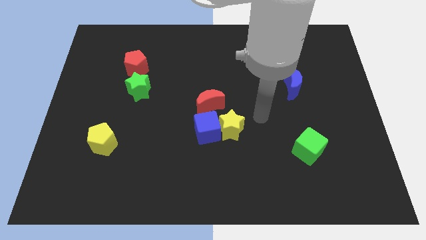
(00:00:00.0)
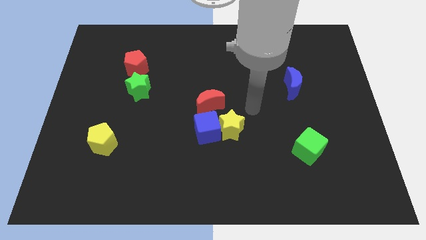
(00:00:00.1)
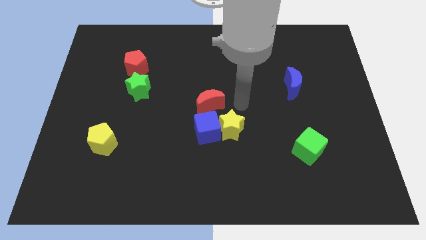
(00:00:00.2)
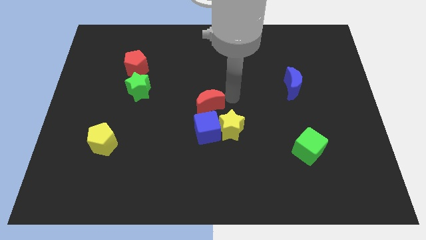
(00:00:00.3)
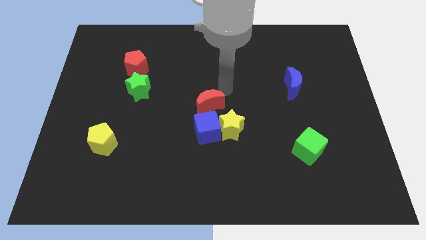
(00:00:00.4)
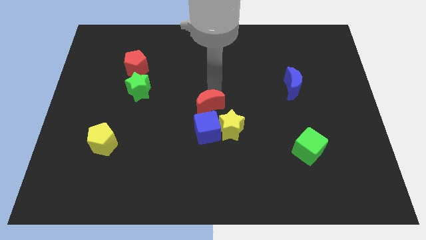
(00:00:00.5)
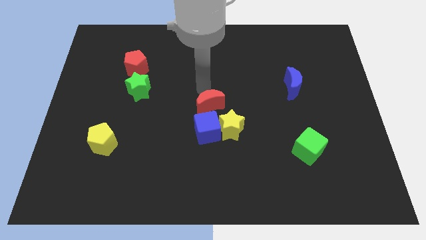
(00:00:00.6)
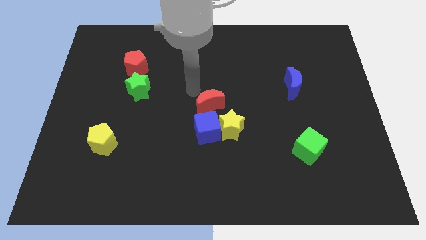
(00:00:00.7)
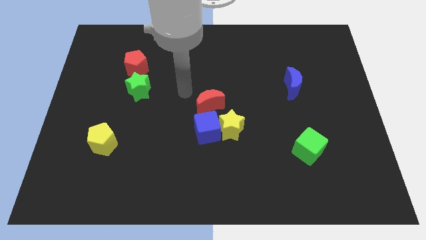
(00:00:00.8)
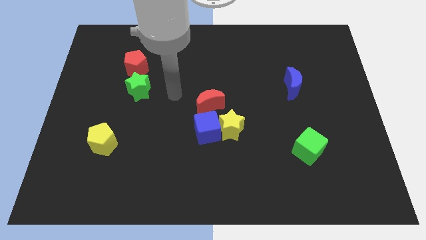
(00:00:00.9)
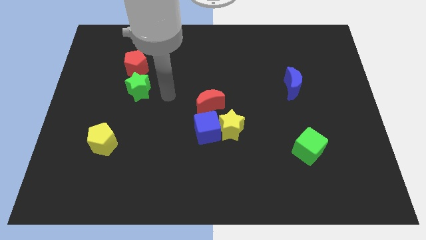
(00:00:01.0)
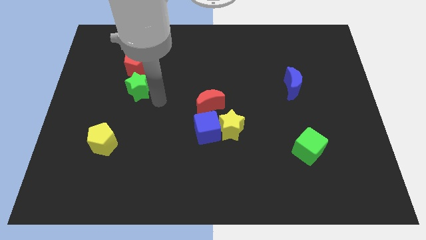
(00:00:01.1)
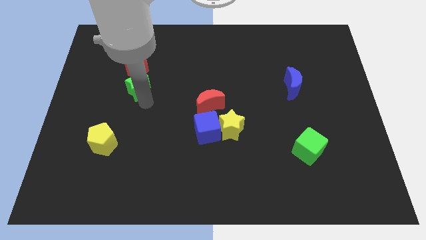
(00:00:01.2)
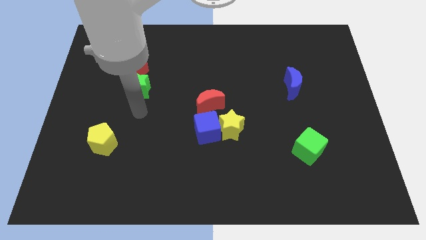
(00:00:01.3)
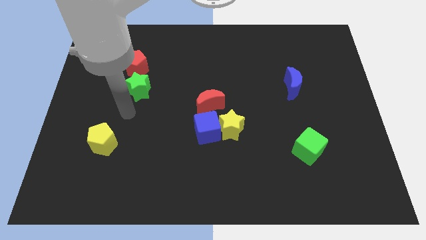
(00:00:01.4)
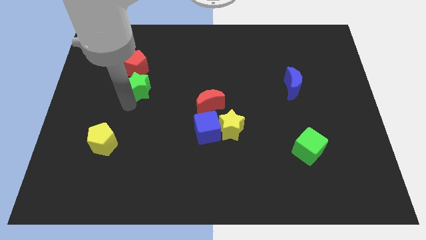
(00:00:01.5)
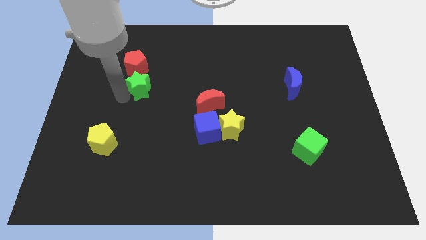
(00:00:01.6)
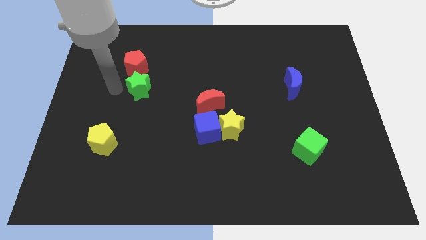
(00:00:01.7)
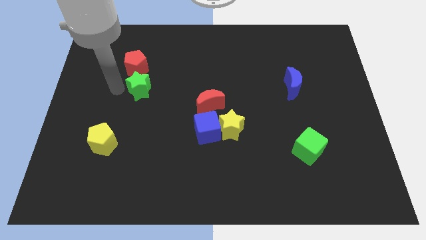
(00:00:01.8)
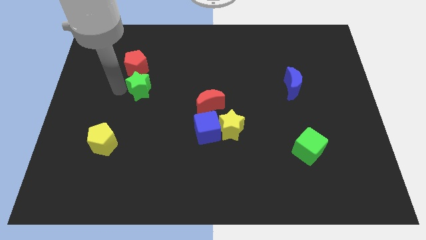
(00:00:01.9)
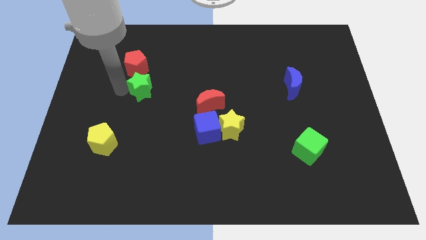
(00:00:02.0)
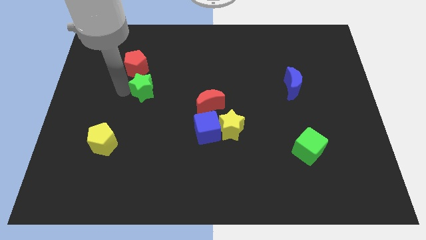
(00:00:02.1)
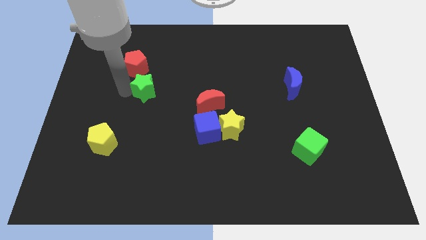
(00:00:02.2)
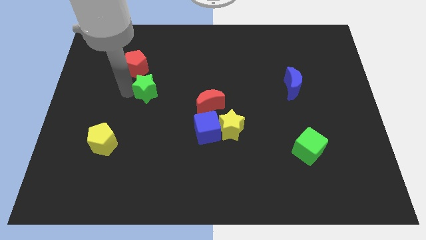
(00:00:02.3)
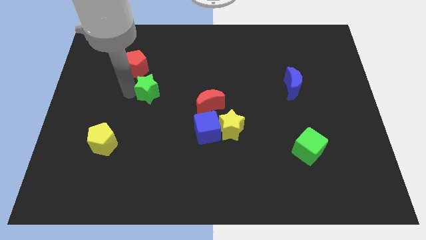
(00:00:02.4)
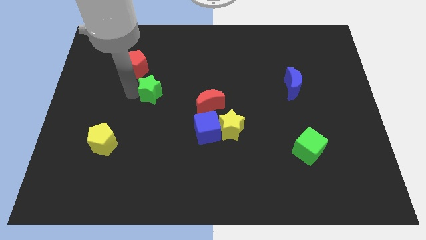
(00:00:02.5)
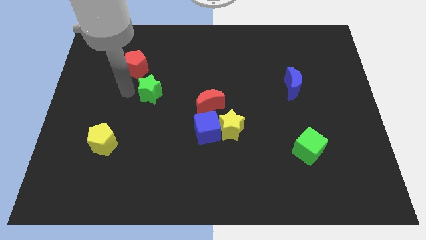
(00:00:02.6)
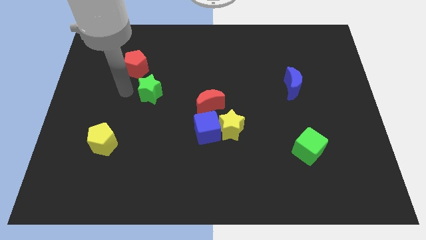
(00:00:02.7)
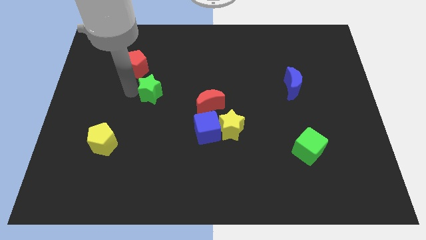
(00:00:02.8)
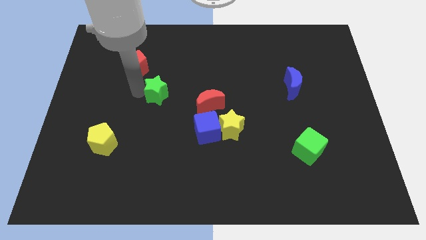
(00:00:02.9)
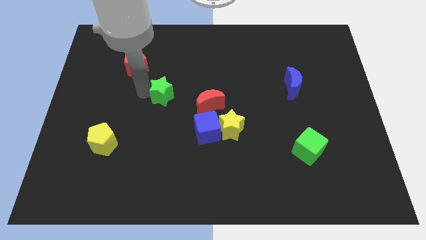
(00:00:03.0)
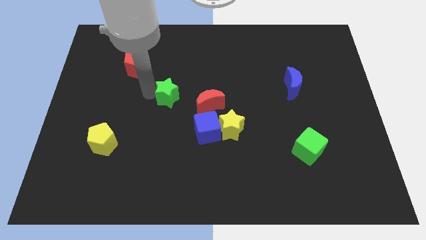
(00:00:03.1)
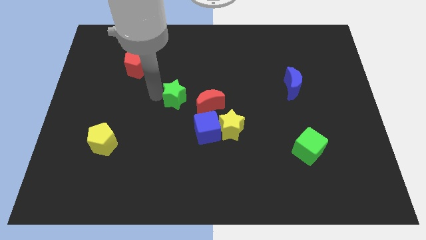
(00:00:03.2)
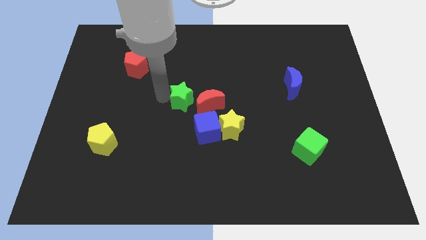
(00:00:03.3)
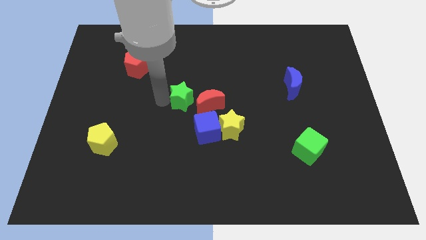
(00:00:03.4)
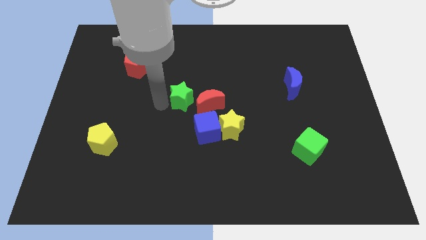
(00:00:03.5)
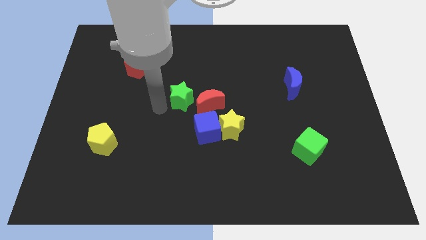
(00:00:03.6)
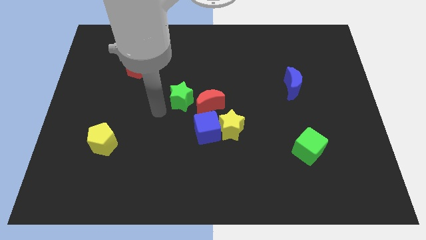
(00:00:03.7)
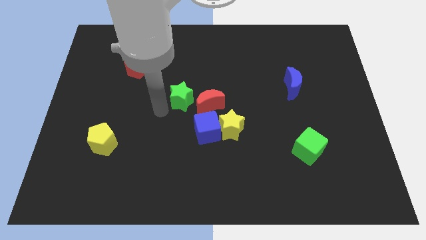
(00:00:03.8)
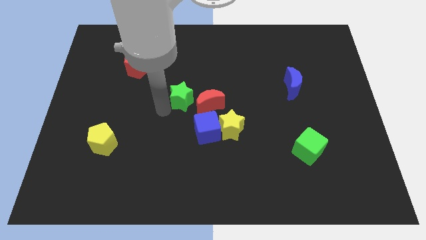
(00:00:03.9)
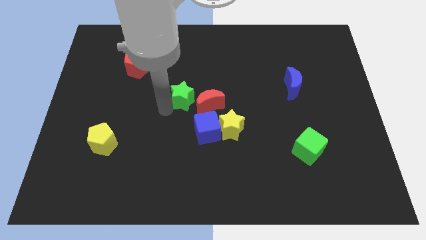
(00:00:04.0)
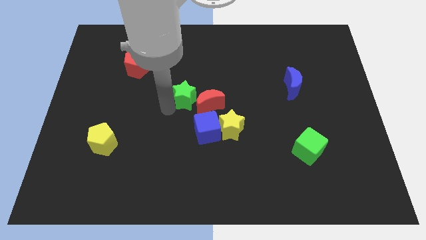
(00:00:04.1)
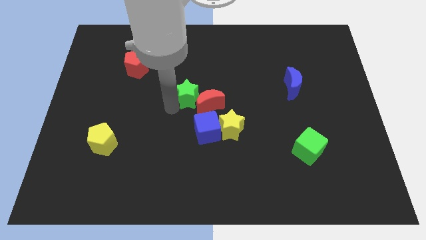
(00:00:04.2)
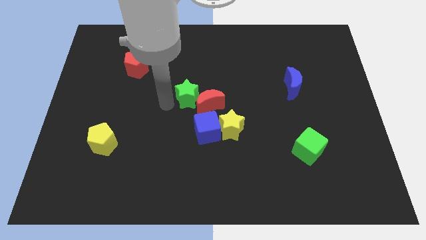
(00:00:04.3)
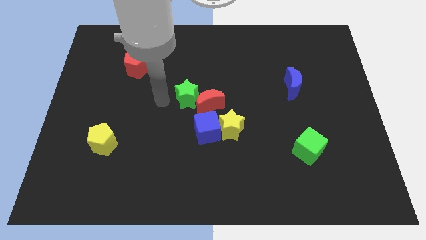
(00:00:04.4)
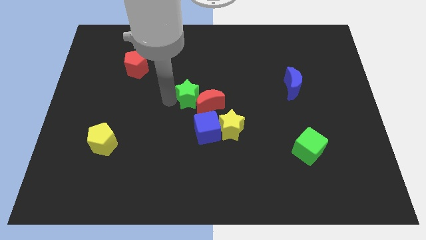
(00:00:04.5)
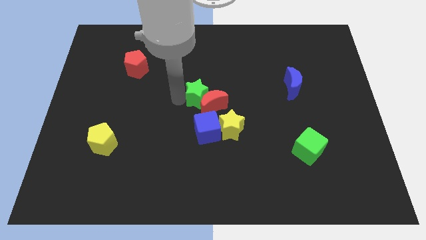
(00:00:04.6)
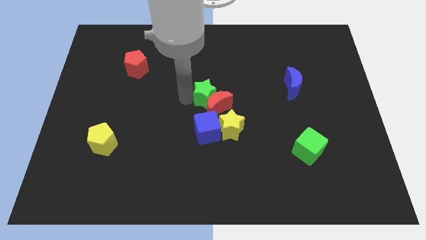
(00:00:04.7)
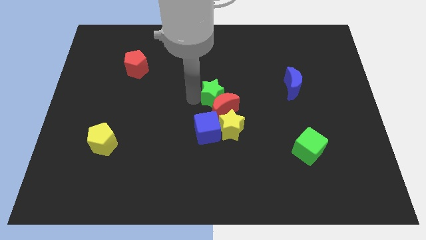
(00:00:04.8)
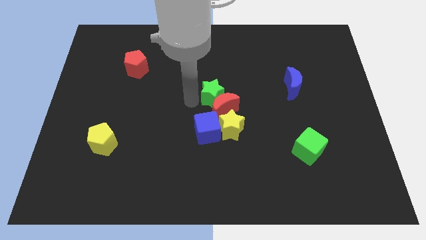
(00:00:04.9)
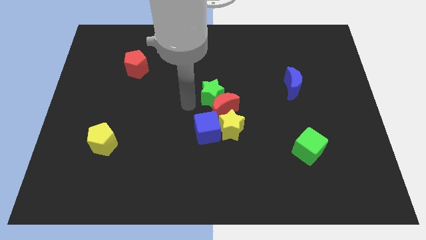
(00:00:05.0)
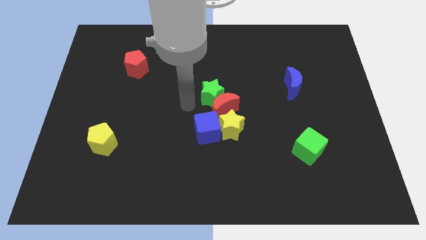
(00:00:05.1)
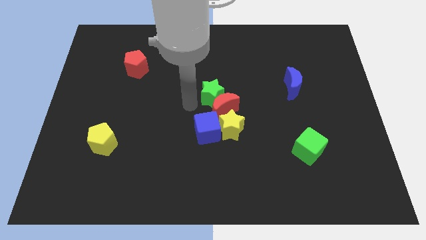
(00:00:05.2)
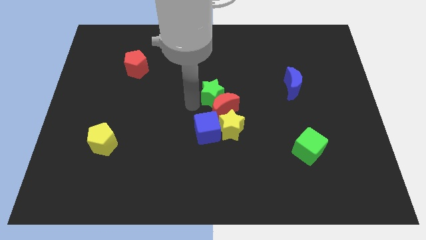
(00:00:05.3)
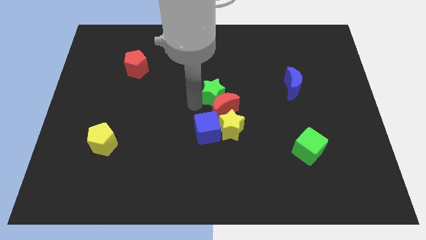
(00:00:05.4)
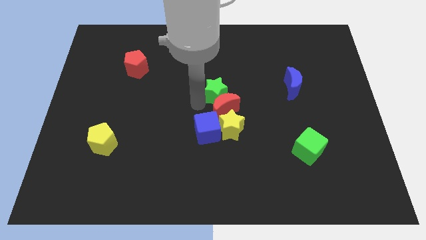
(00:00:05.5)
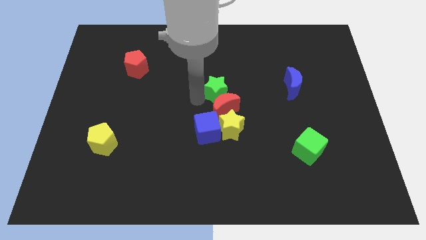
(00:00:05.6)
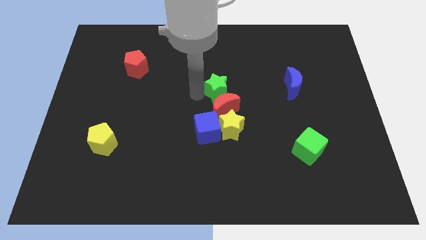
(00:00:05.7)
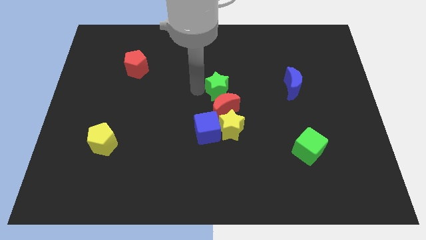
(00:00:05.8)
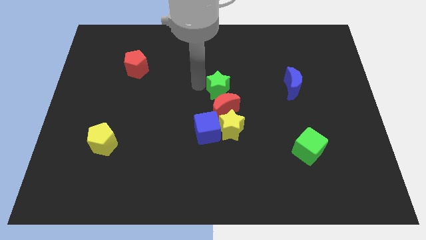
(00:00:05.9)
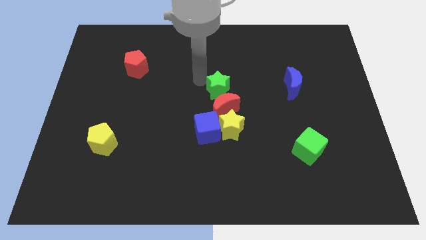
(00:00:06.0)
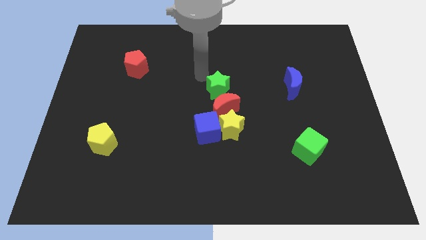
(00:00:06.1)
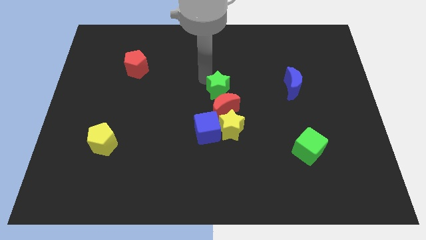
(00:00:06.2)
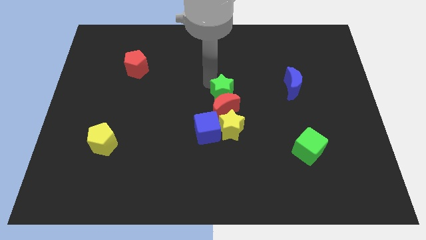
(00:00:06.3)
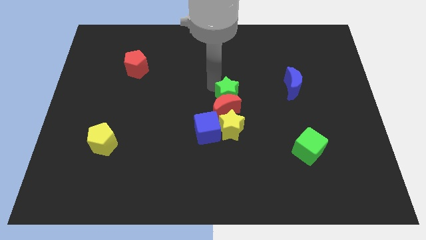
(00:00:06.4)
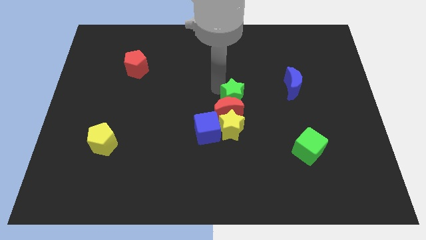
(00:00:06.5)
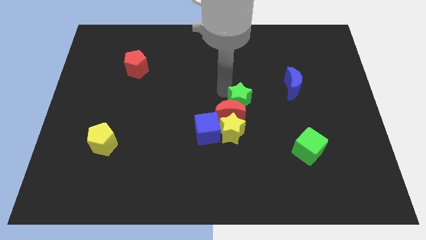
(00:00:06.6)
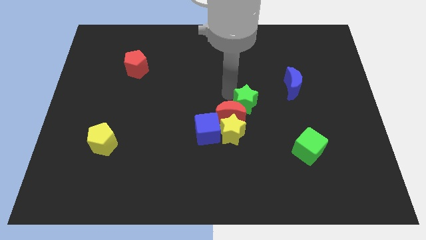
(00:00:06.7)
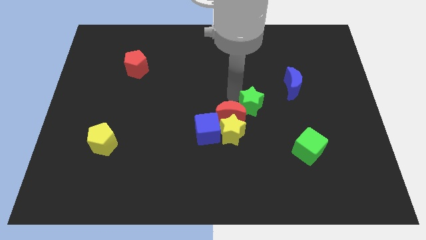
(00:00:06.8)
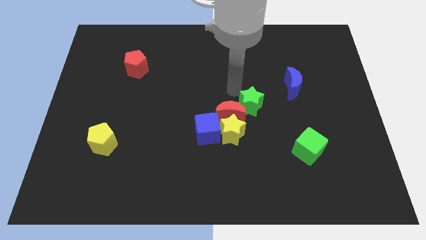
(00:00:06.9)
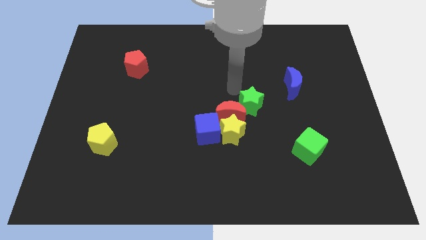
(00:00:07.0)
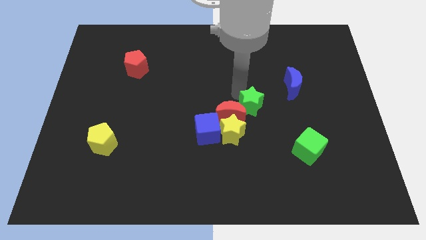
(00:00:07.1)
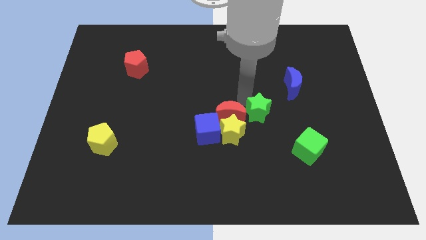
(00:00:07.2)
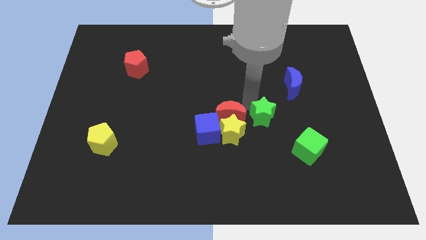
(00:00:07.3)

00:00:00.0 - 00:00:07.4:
push the green star to the right of the yellow star
